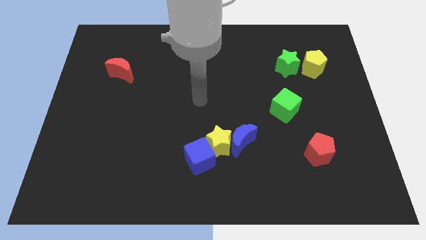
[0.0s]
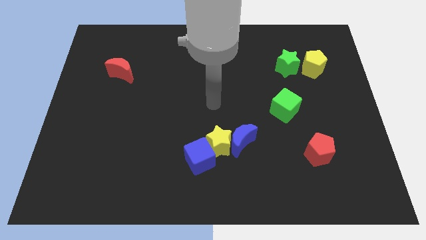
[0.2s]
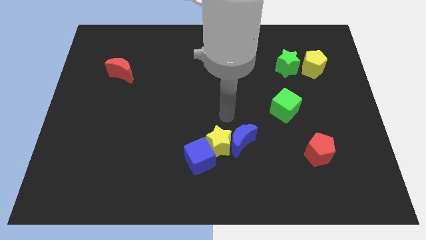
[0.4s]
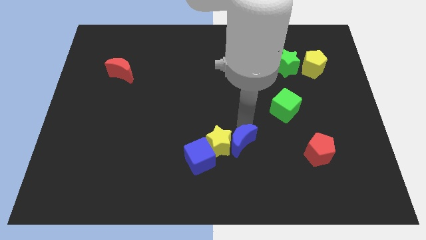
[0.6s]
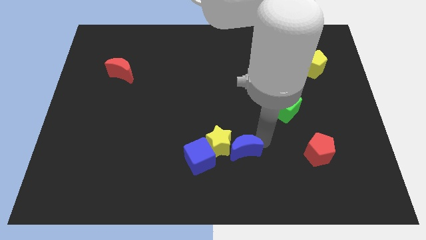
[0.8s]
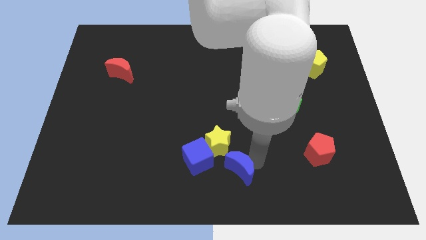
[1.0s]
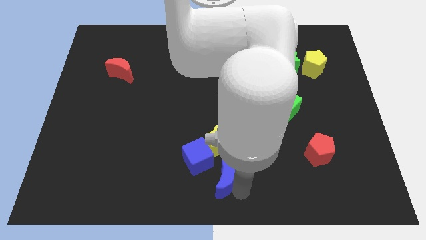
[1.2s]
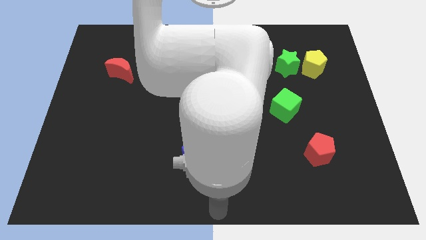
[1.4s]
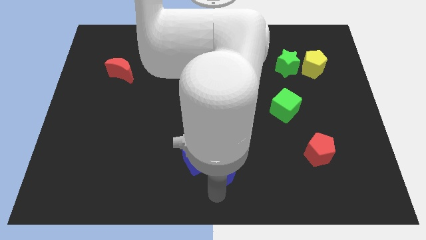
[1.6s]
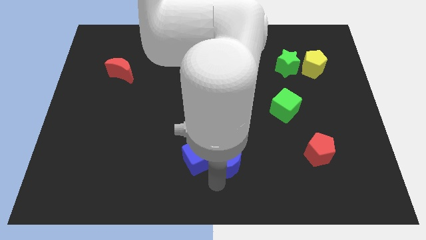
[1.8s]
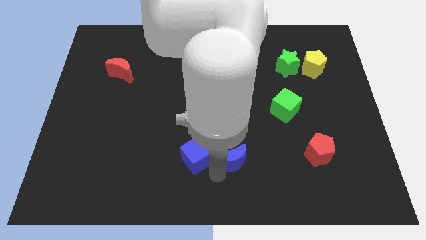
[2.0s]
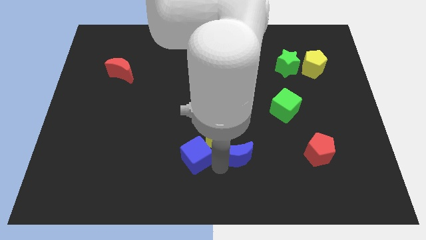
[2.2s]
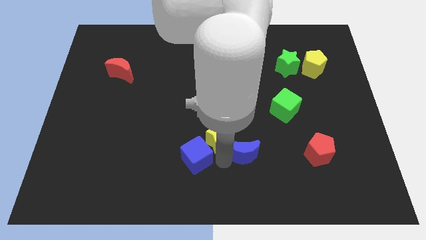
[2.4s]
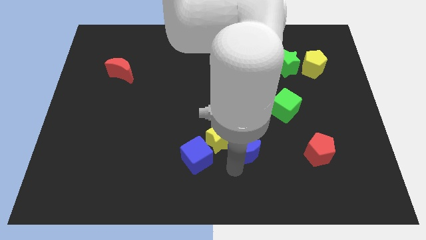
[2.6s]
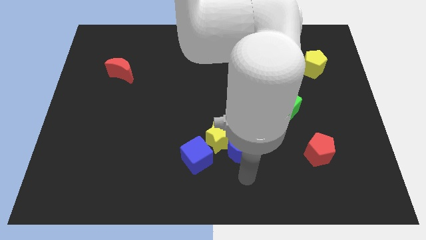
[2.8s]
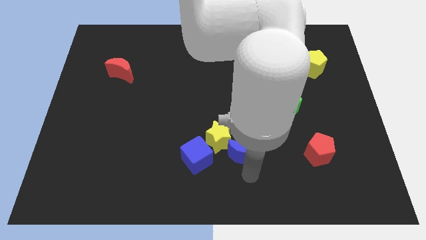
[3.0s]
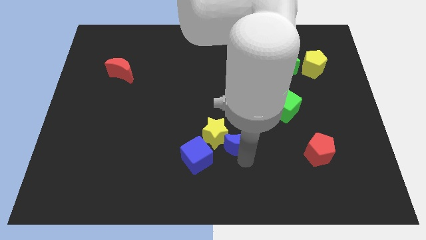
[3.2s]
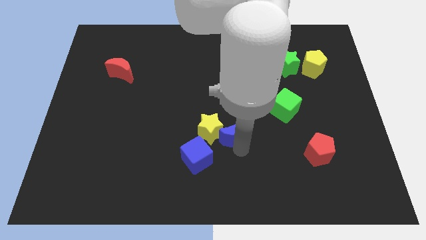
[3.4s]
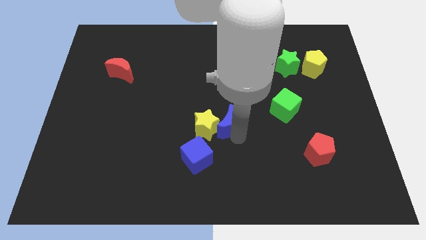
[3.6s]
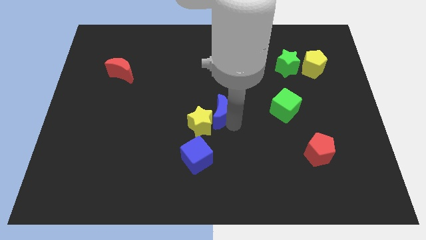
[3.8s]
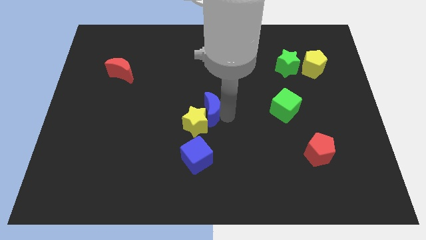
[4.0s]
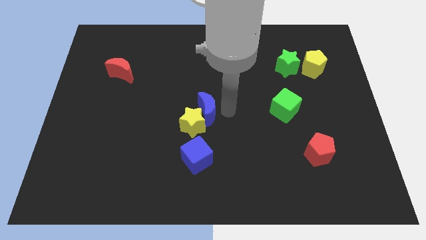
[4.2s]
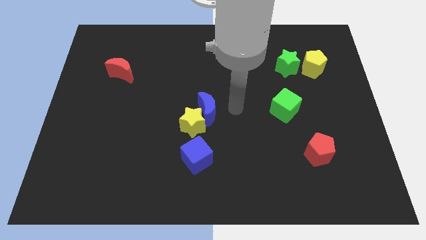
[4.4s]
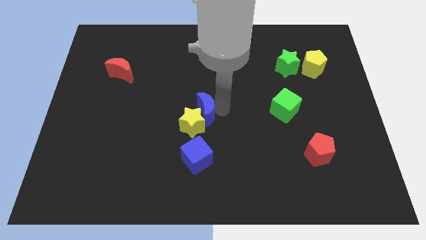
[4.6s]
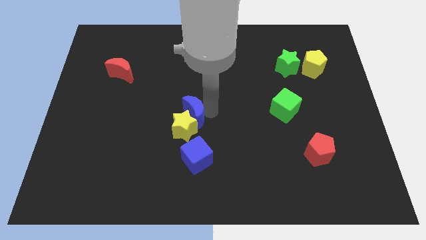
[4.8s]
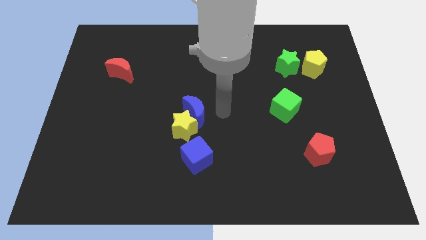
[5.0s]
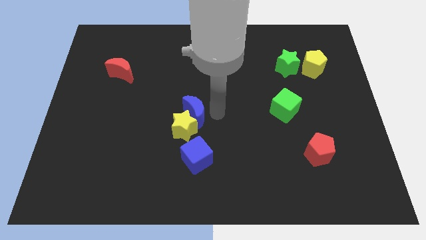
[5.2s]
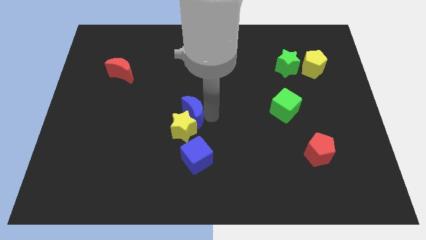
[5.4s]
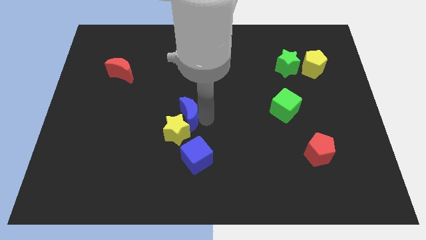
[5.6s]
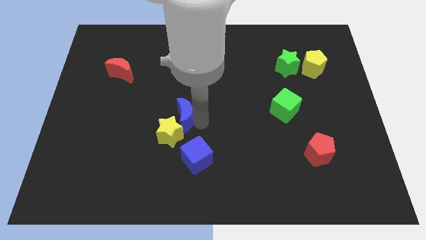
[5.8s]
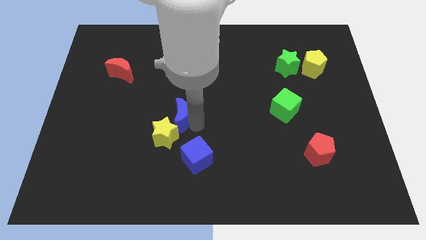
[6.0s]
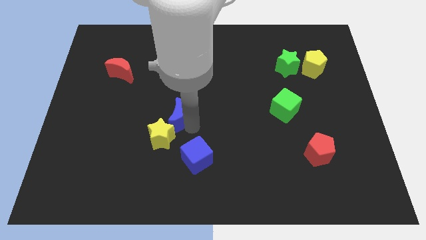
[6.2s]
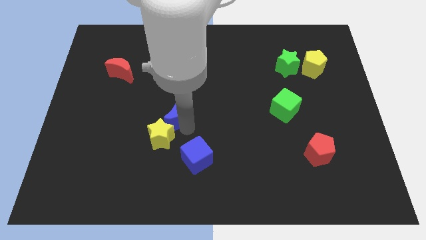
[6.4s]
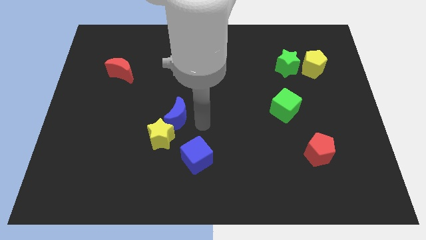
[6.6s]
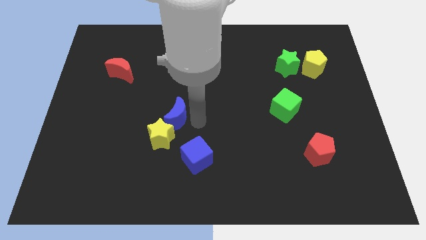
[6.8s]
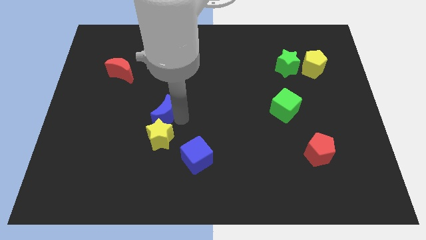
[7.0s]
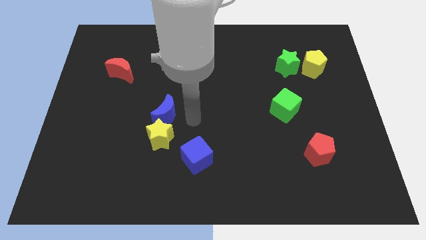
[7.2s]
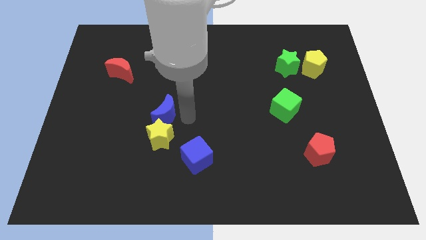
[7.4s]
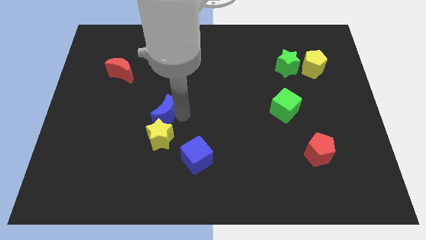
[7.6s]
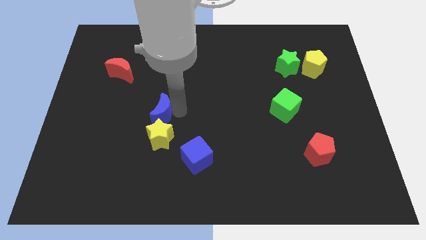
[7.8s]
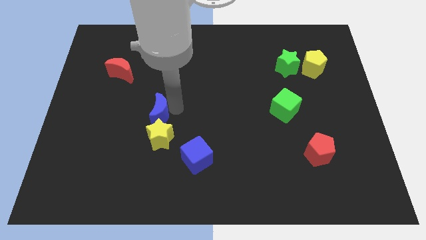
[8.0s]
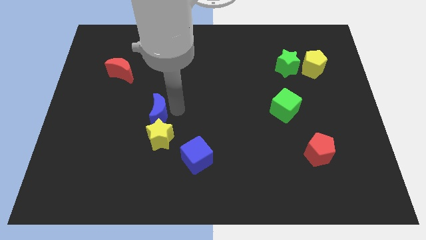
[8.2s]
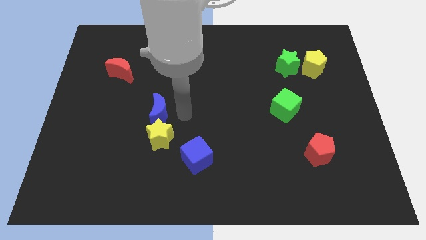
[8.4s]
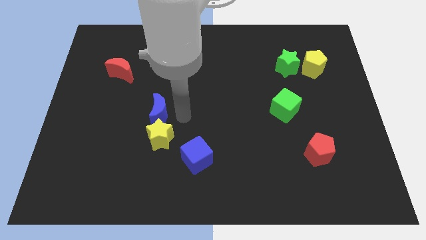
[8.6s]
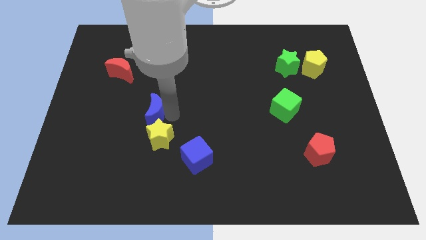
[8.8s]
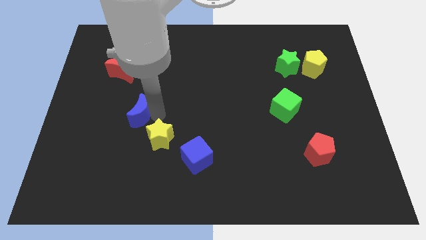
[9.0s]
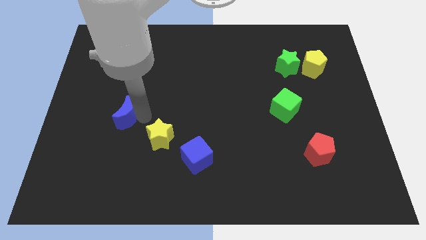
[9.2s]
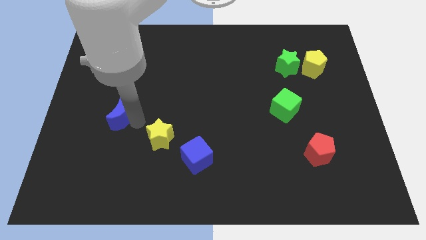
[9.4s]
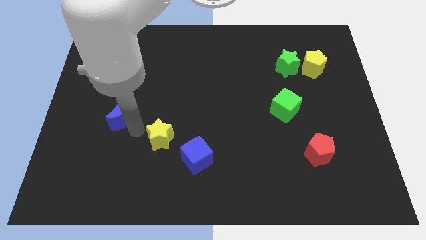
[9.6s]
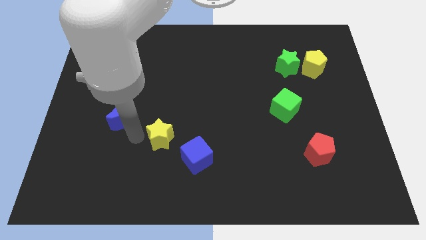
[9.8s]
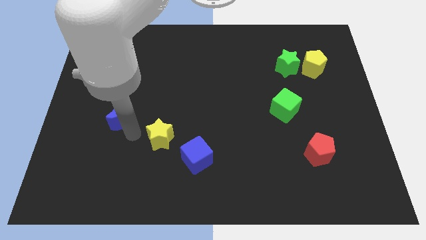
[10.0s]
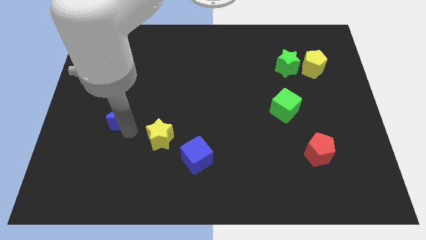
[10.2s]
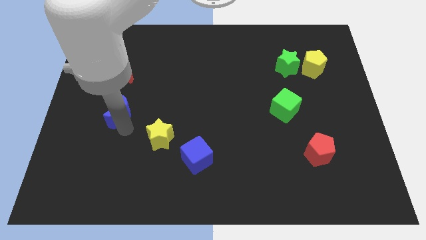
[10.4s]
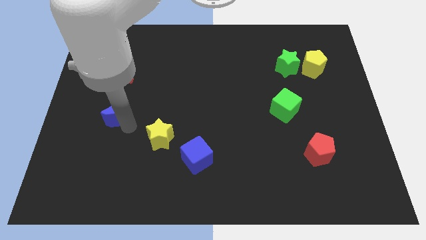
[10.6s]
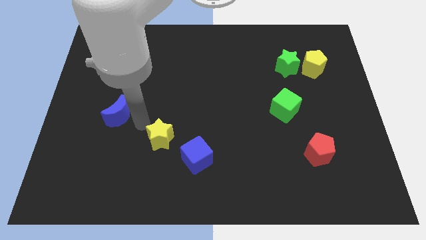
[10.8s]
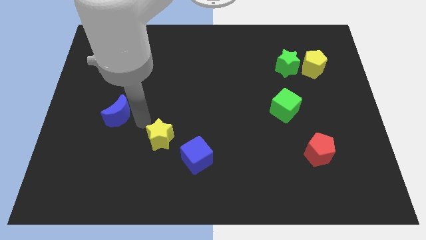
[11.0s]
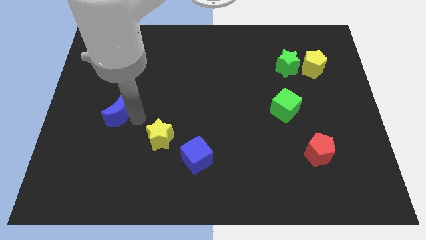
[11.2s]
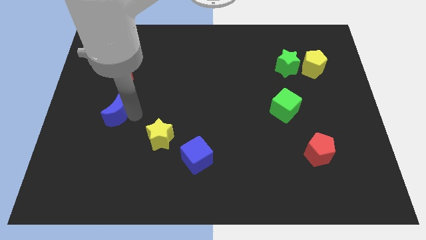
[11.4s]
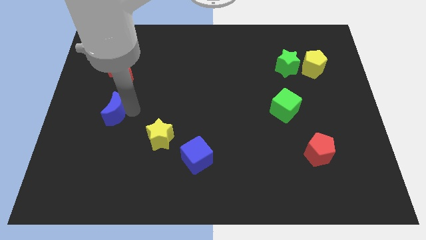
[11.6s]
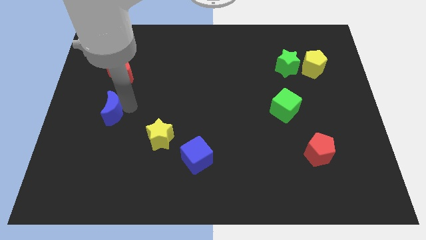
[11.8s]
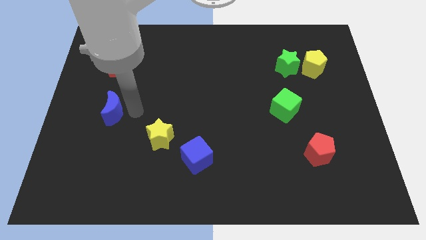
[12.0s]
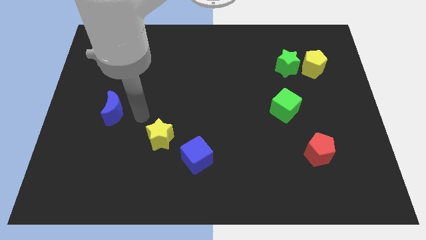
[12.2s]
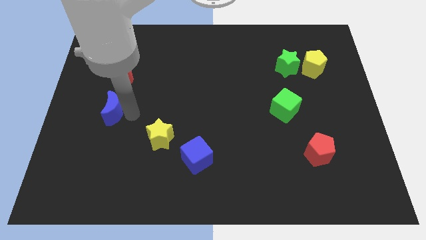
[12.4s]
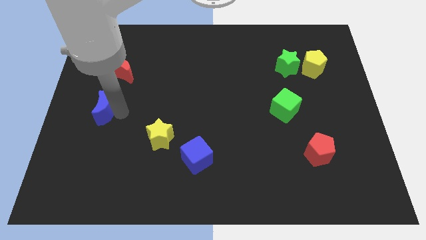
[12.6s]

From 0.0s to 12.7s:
move the blue moon to the center left
